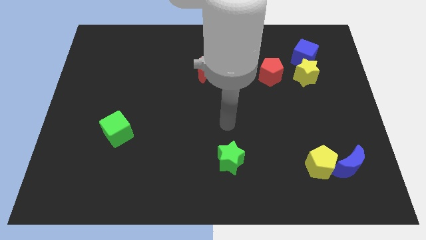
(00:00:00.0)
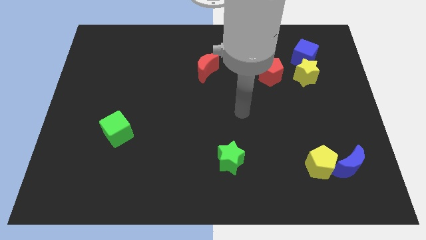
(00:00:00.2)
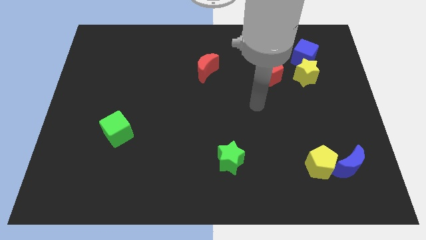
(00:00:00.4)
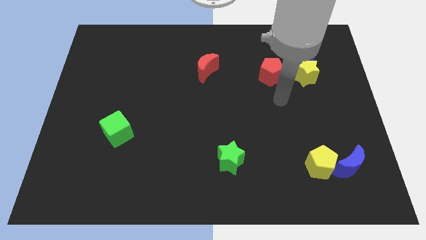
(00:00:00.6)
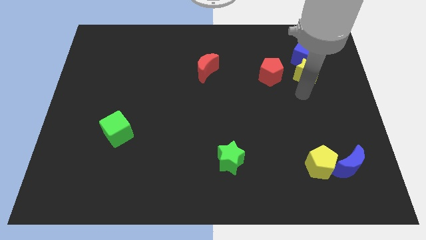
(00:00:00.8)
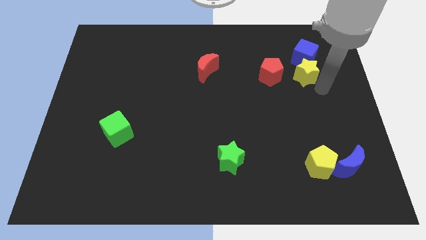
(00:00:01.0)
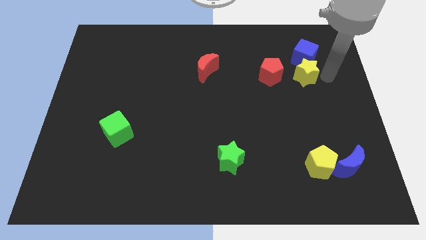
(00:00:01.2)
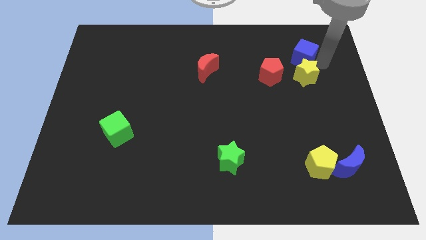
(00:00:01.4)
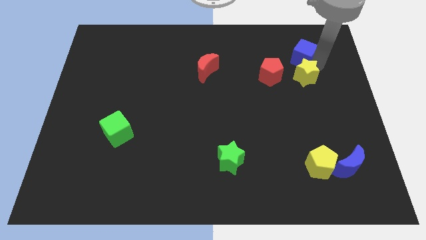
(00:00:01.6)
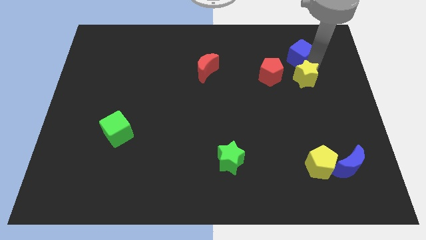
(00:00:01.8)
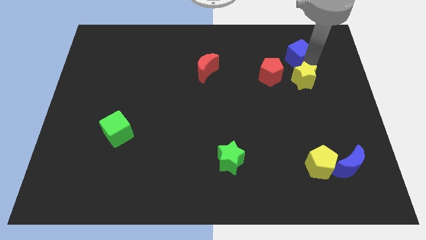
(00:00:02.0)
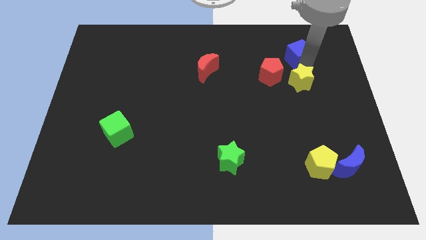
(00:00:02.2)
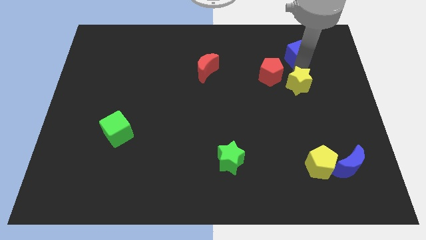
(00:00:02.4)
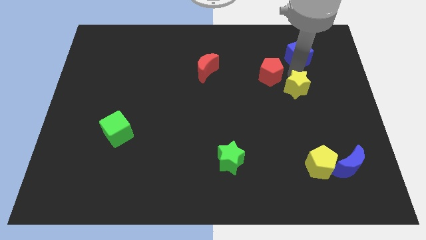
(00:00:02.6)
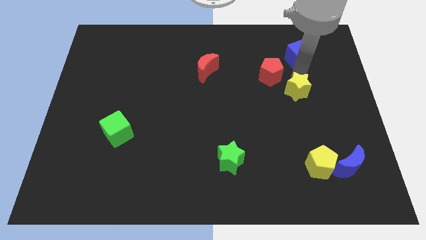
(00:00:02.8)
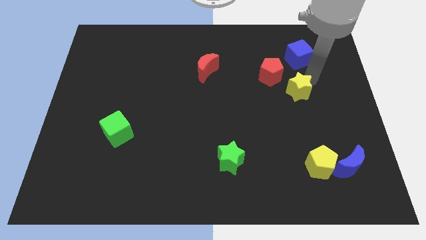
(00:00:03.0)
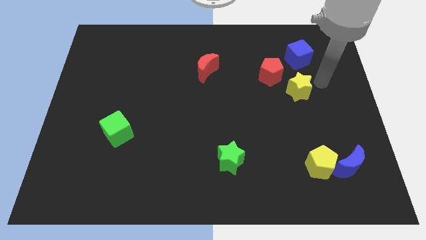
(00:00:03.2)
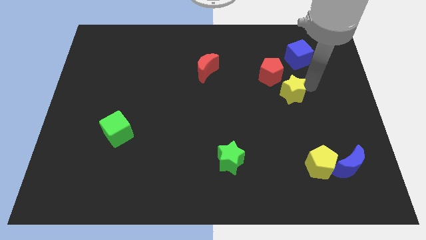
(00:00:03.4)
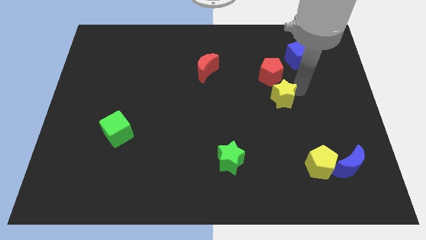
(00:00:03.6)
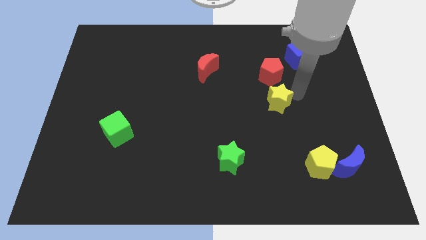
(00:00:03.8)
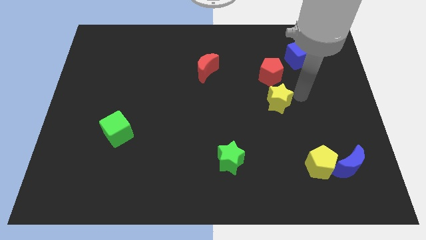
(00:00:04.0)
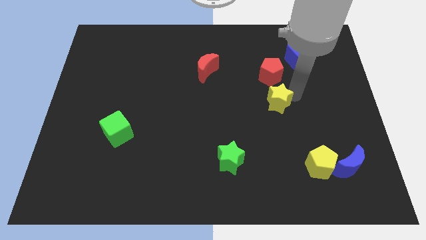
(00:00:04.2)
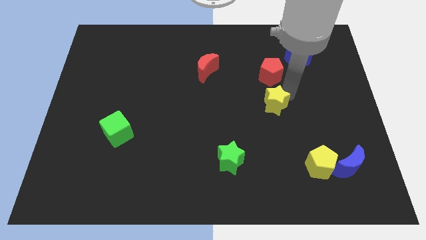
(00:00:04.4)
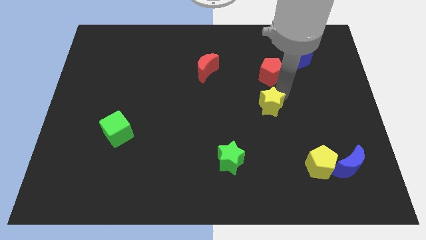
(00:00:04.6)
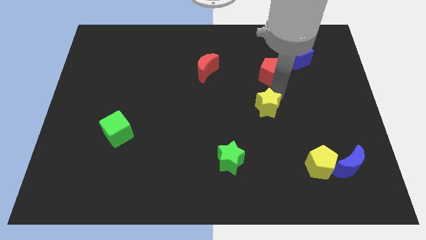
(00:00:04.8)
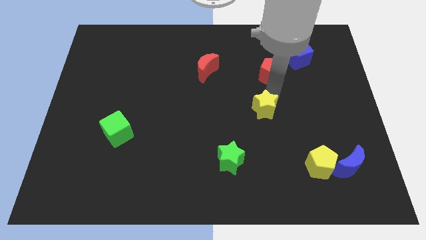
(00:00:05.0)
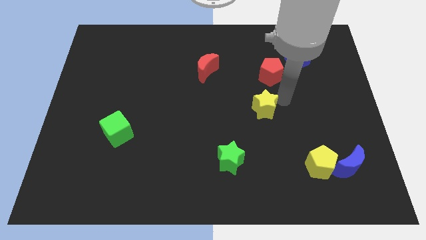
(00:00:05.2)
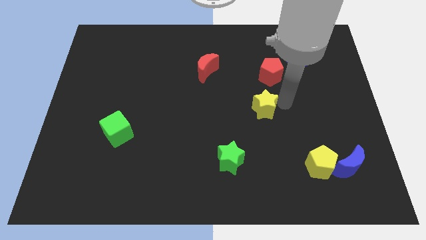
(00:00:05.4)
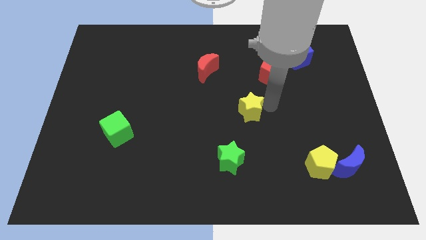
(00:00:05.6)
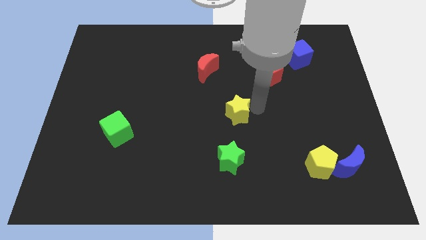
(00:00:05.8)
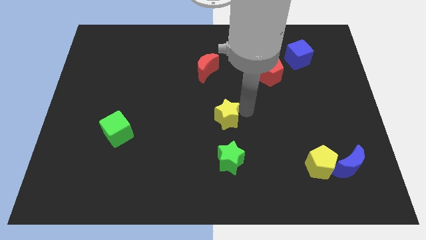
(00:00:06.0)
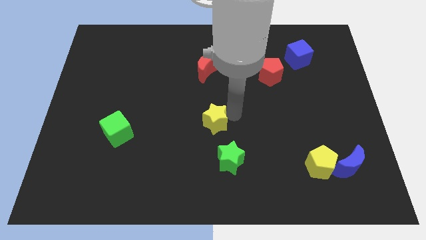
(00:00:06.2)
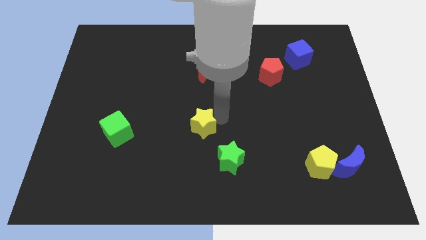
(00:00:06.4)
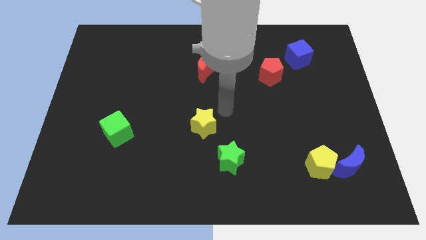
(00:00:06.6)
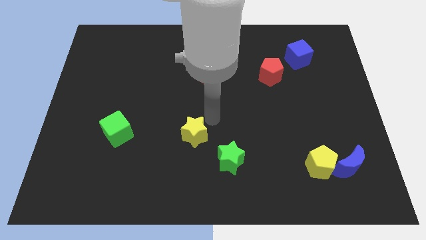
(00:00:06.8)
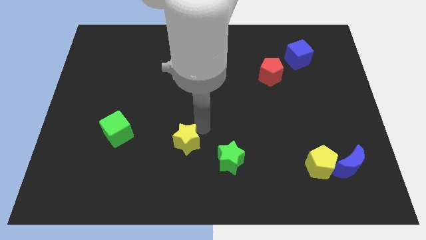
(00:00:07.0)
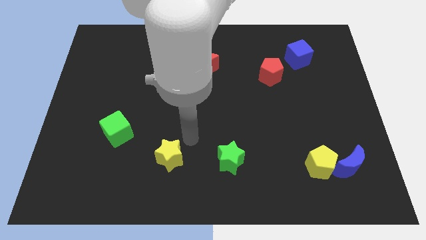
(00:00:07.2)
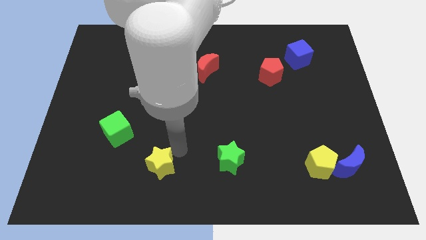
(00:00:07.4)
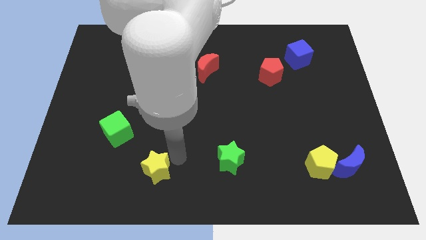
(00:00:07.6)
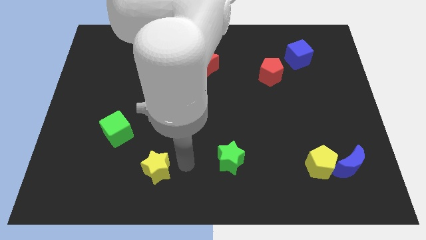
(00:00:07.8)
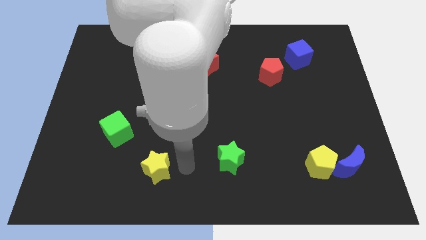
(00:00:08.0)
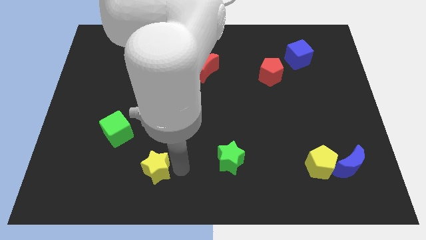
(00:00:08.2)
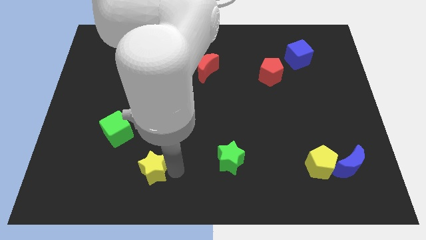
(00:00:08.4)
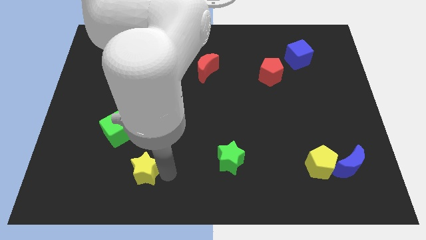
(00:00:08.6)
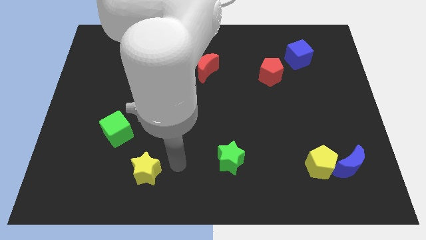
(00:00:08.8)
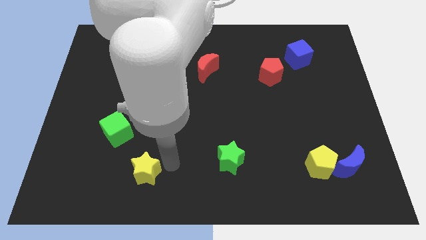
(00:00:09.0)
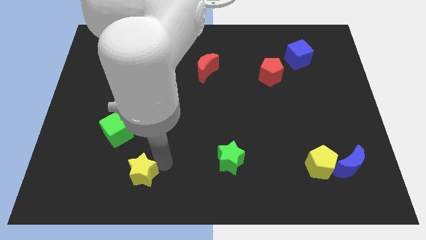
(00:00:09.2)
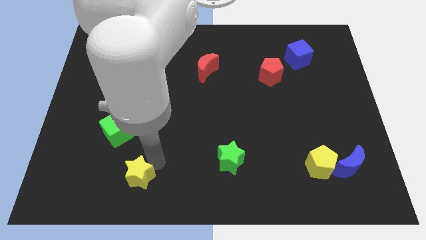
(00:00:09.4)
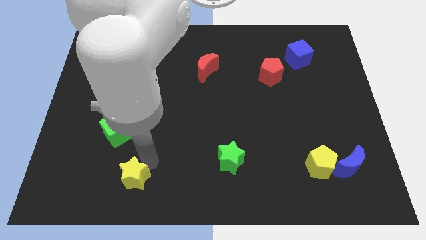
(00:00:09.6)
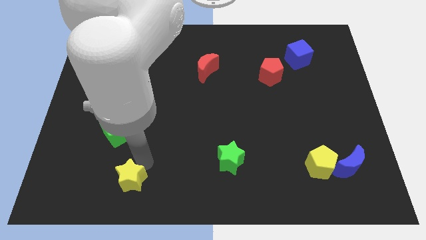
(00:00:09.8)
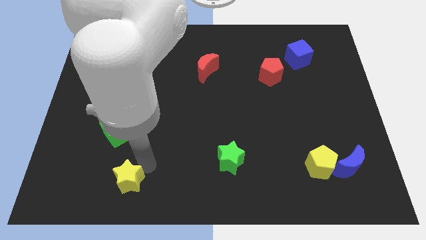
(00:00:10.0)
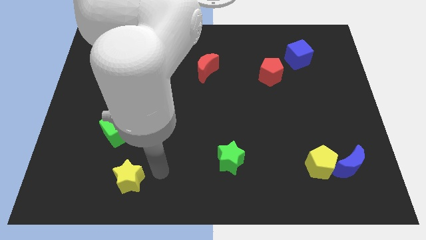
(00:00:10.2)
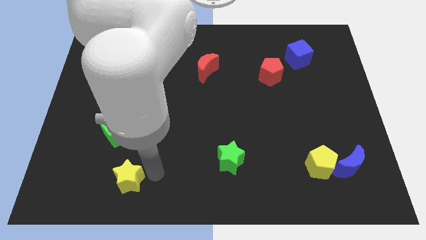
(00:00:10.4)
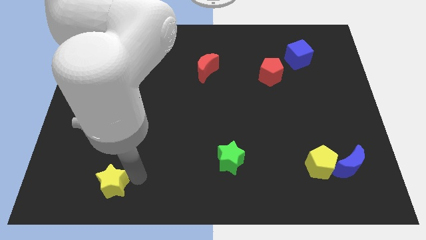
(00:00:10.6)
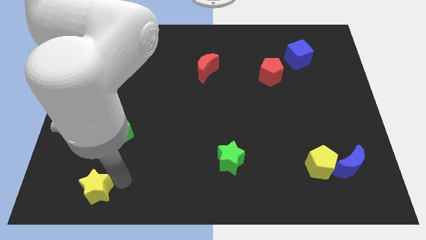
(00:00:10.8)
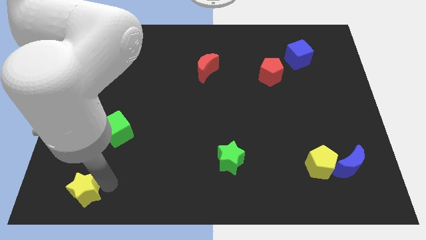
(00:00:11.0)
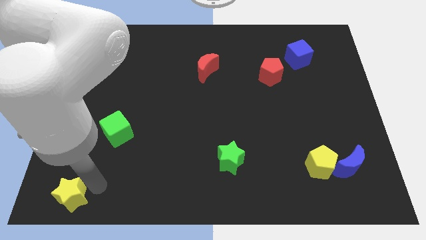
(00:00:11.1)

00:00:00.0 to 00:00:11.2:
move the yellow star to the bottom left corner
